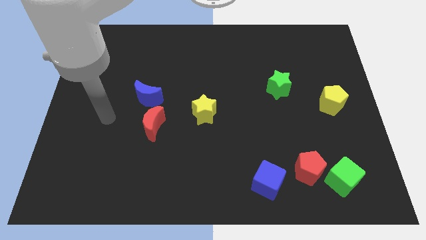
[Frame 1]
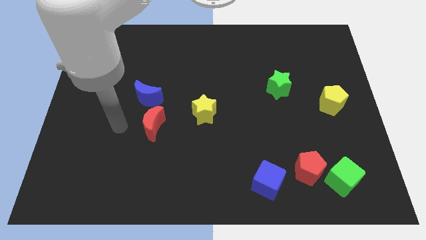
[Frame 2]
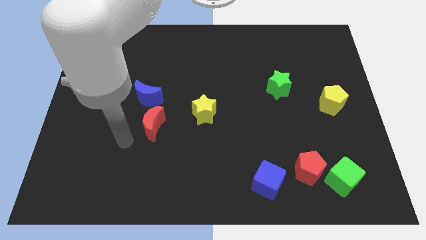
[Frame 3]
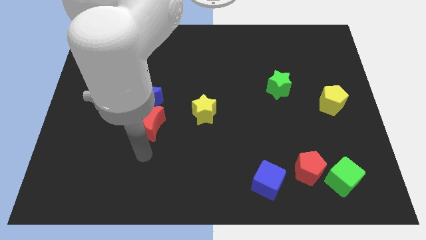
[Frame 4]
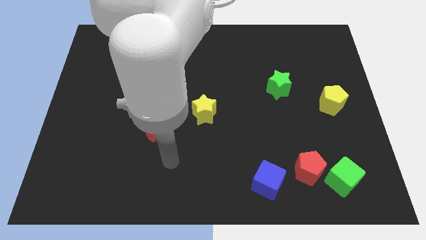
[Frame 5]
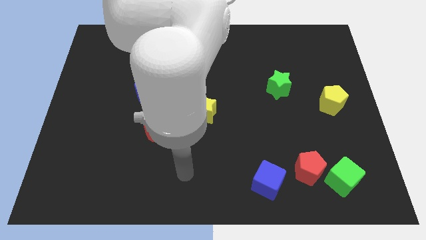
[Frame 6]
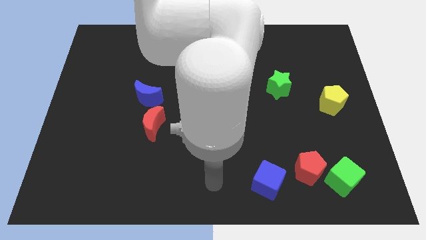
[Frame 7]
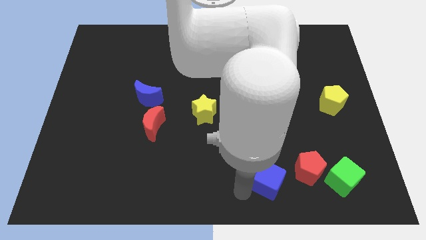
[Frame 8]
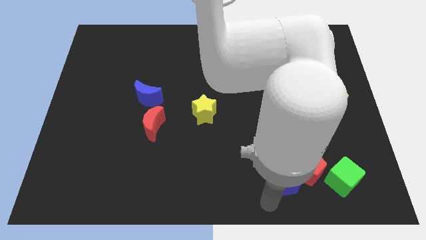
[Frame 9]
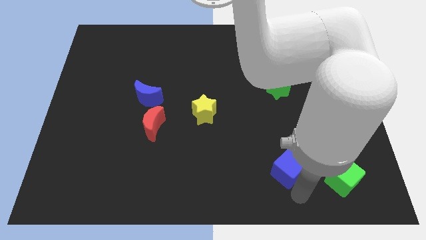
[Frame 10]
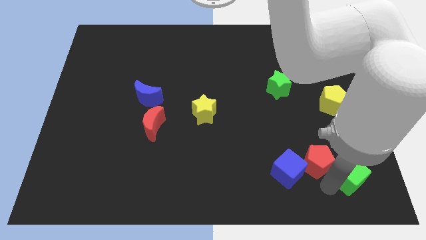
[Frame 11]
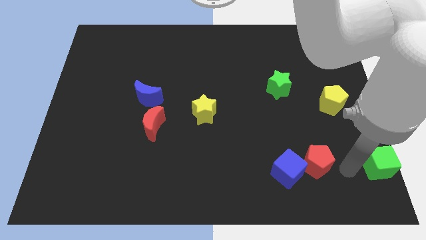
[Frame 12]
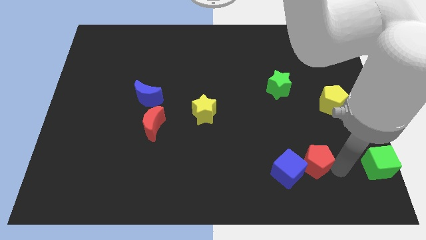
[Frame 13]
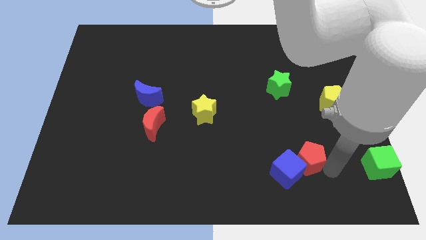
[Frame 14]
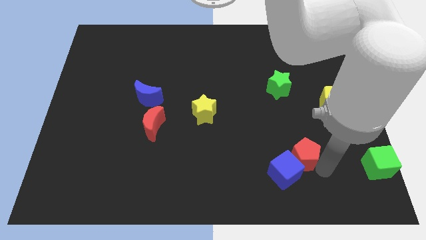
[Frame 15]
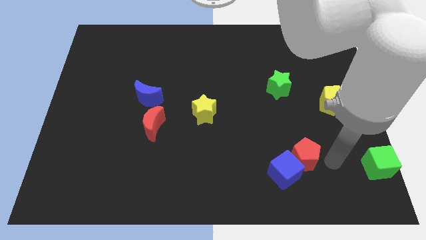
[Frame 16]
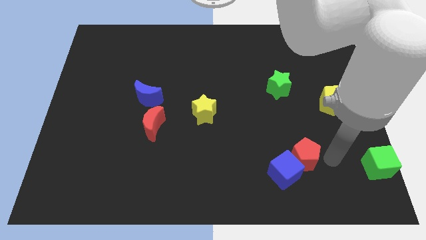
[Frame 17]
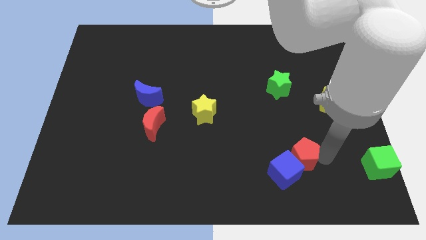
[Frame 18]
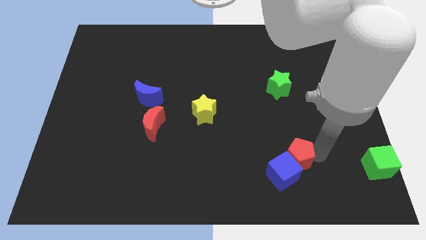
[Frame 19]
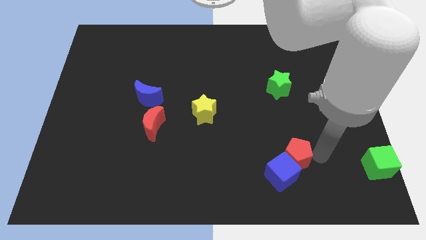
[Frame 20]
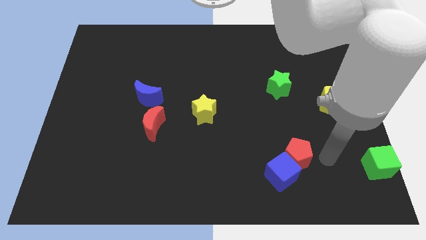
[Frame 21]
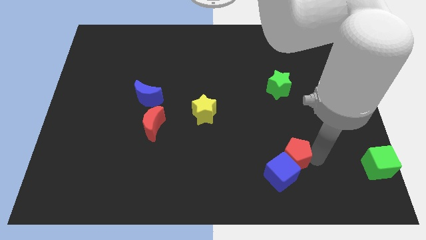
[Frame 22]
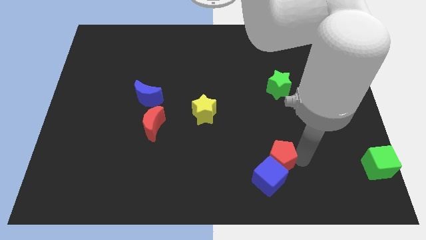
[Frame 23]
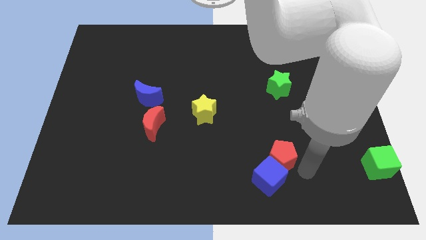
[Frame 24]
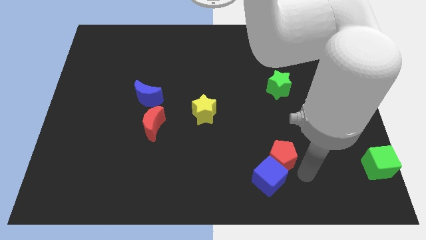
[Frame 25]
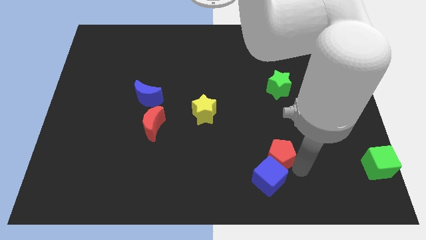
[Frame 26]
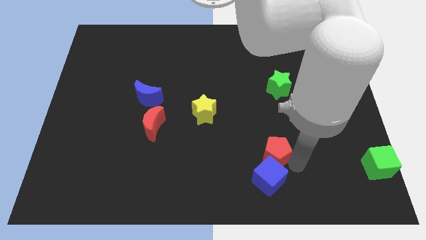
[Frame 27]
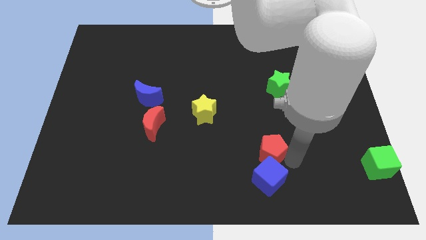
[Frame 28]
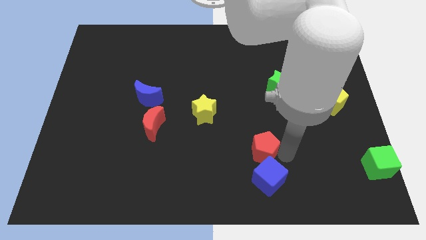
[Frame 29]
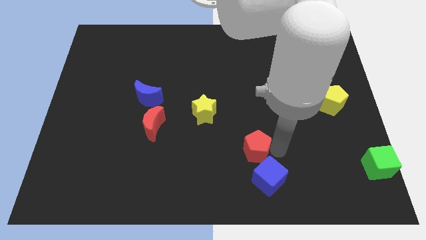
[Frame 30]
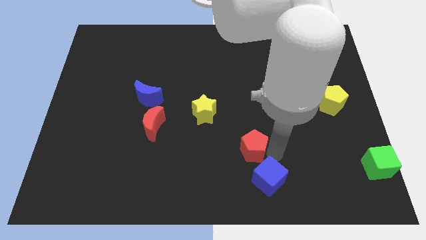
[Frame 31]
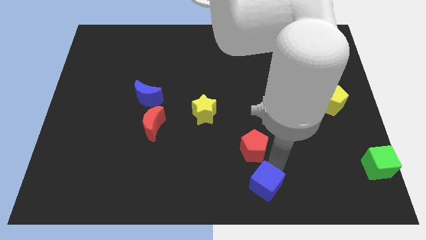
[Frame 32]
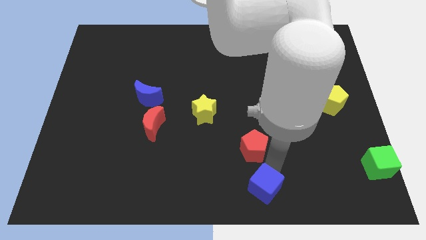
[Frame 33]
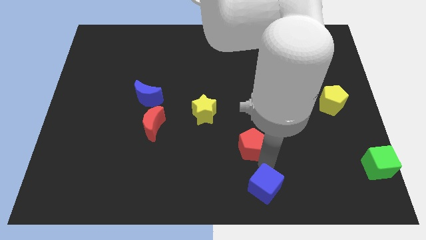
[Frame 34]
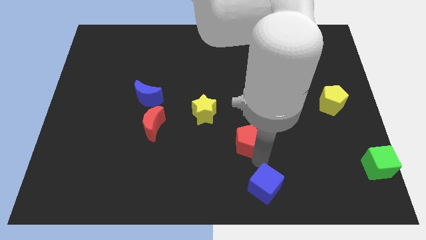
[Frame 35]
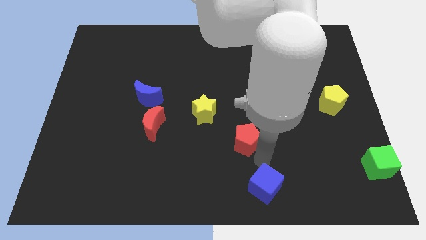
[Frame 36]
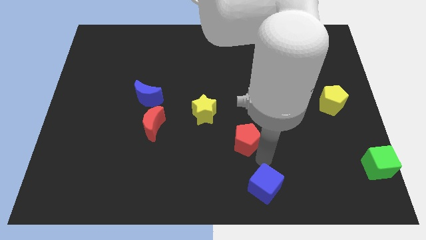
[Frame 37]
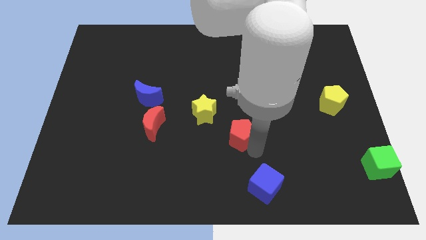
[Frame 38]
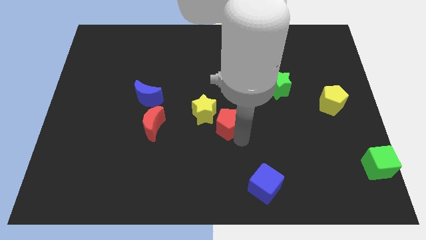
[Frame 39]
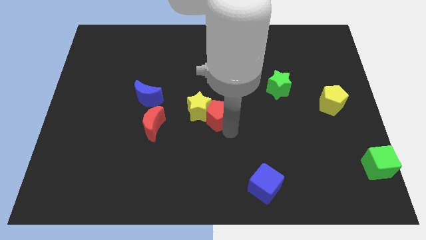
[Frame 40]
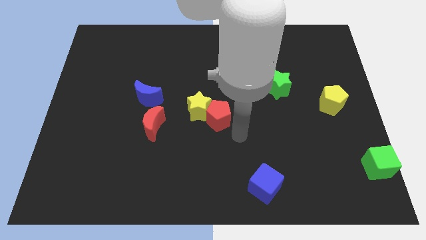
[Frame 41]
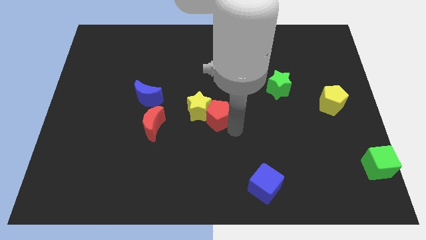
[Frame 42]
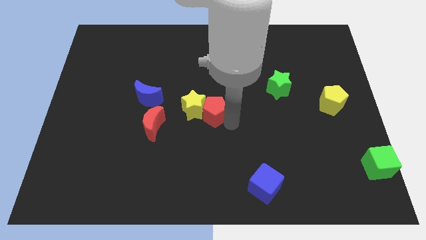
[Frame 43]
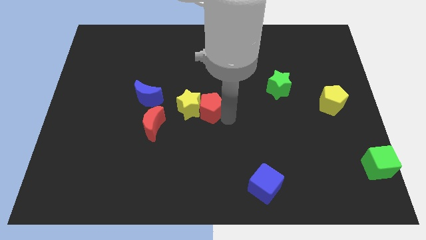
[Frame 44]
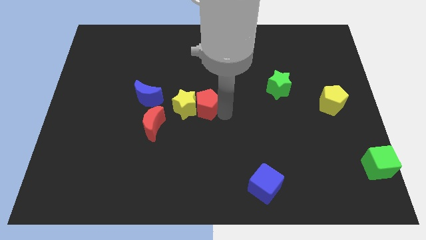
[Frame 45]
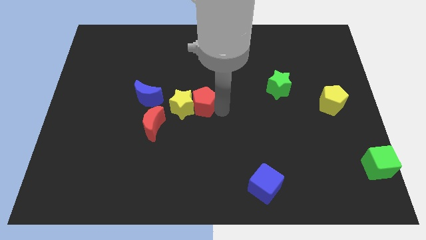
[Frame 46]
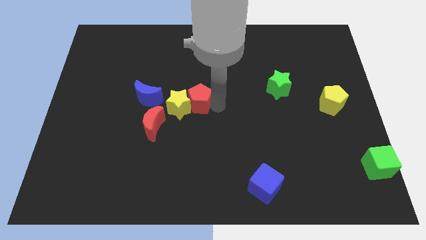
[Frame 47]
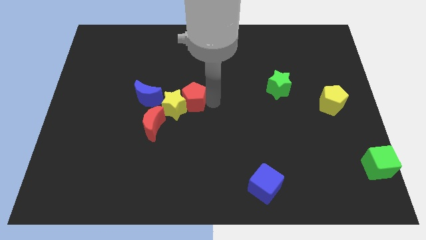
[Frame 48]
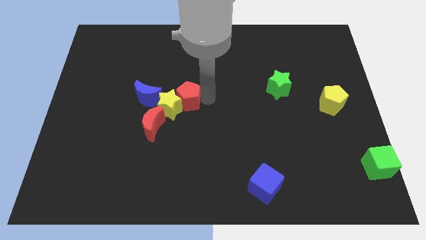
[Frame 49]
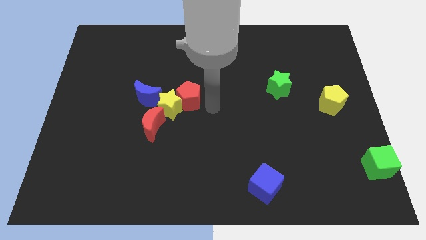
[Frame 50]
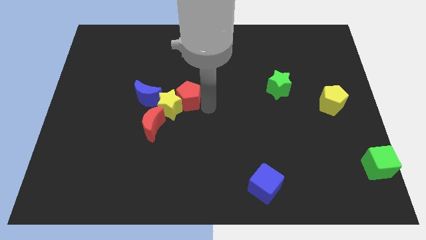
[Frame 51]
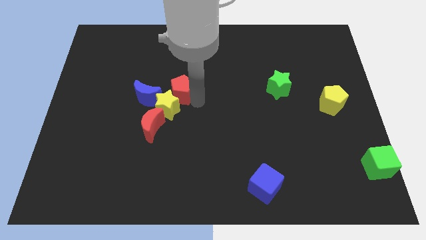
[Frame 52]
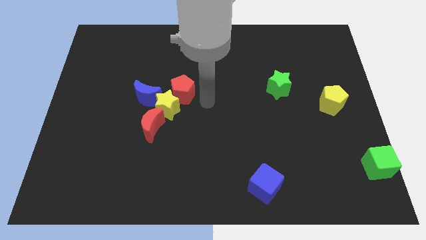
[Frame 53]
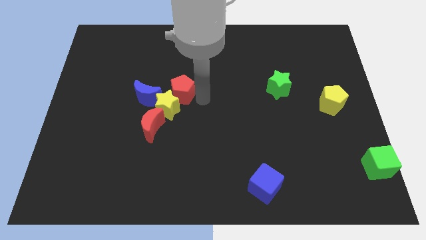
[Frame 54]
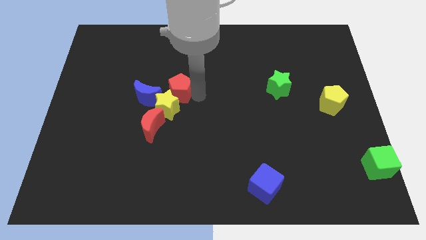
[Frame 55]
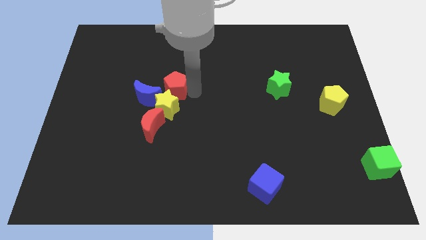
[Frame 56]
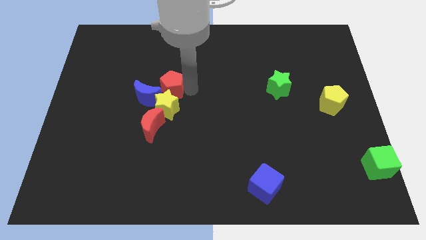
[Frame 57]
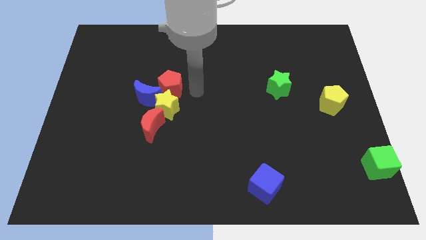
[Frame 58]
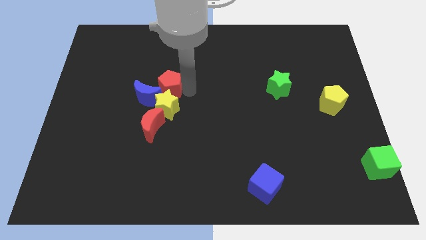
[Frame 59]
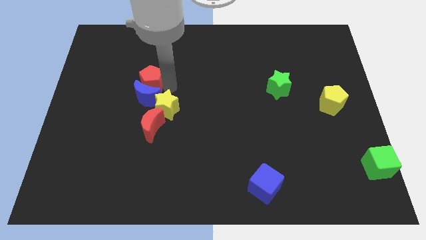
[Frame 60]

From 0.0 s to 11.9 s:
put the red pentagon diagonally up and to the left of the blue moon

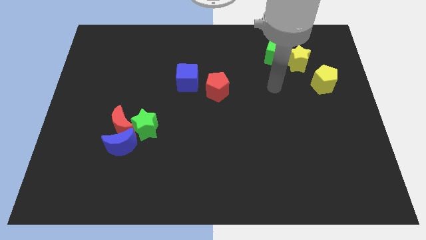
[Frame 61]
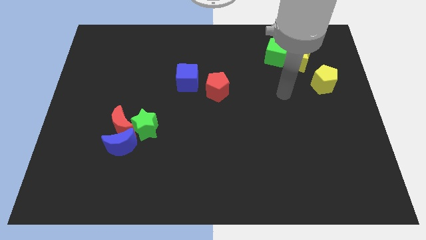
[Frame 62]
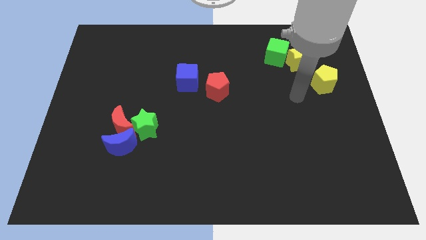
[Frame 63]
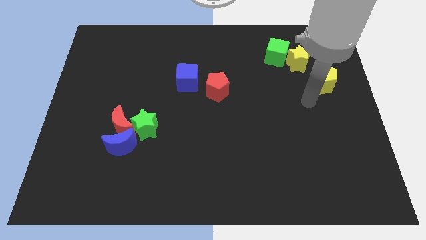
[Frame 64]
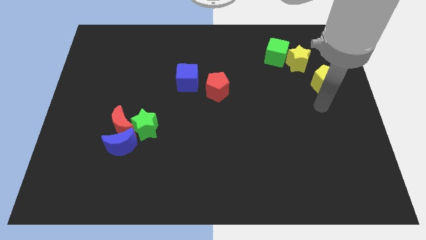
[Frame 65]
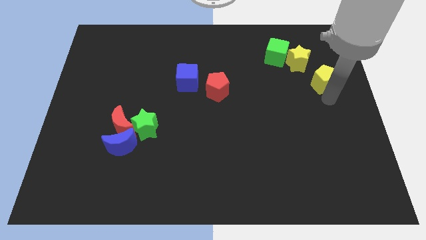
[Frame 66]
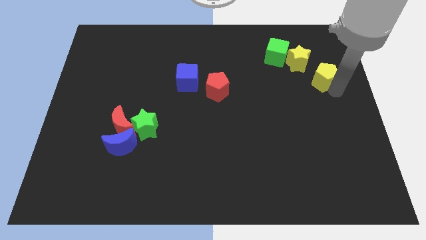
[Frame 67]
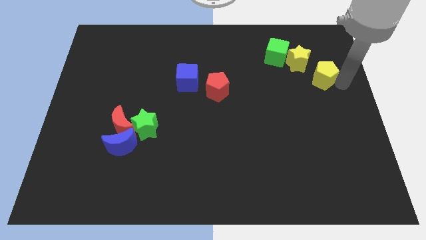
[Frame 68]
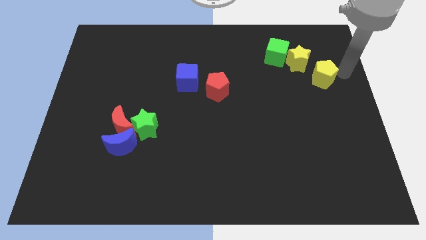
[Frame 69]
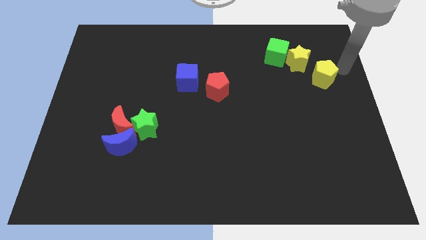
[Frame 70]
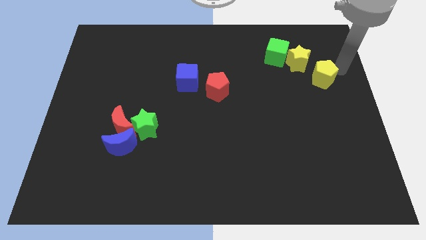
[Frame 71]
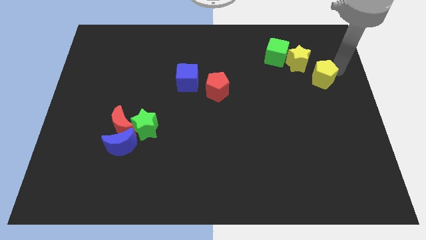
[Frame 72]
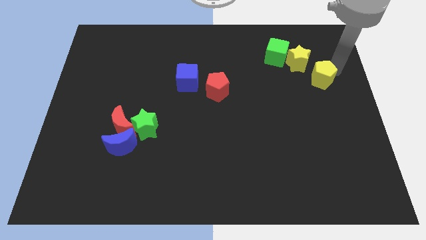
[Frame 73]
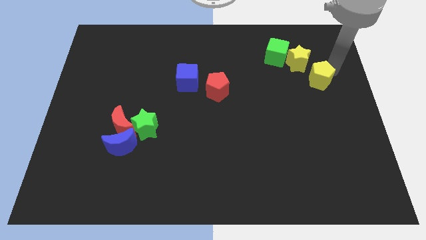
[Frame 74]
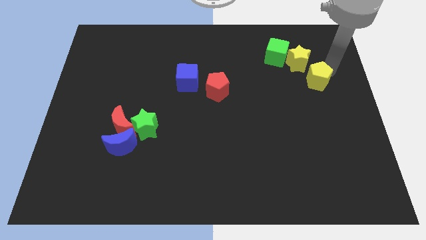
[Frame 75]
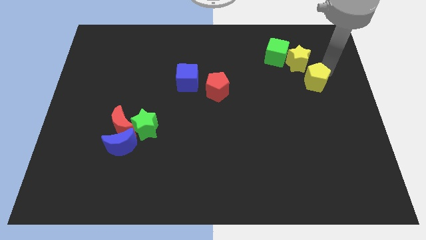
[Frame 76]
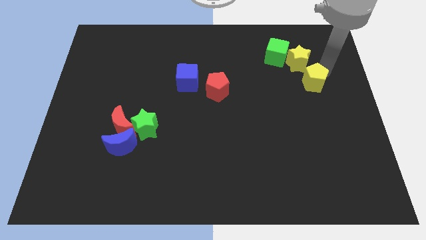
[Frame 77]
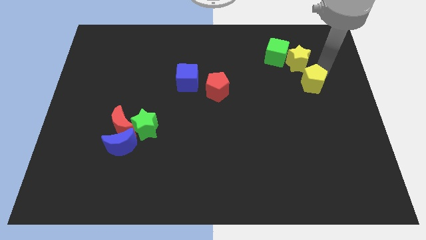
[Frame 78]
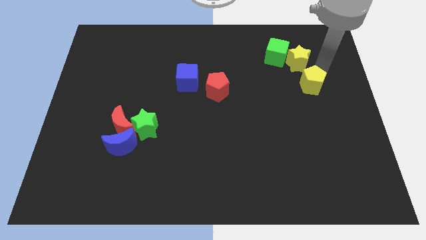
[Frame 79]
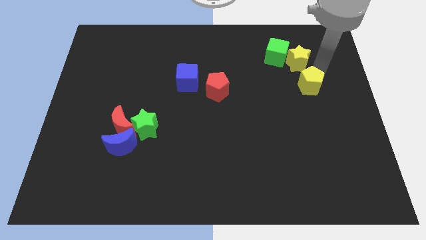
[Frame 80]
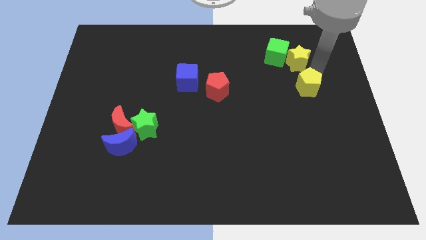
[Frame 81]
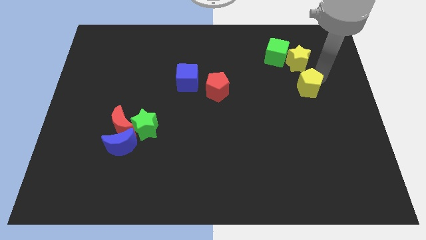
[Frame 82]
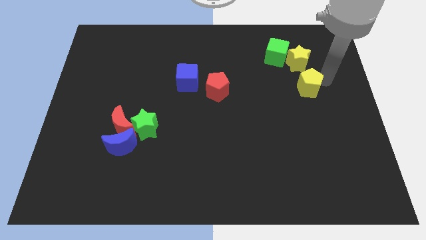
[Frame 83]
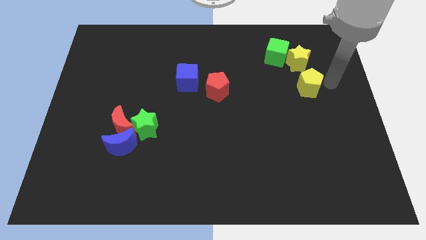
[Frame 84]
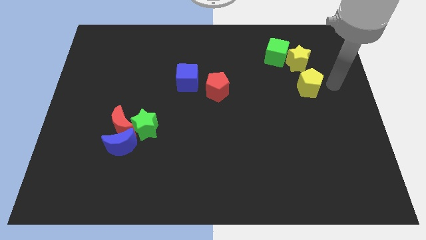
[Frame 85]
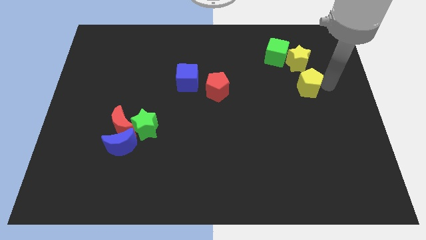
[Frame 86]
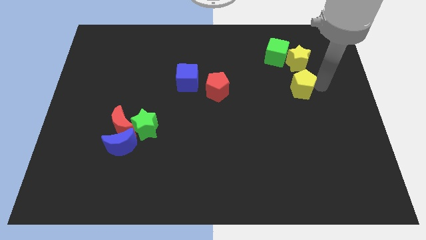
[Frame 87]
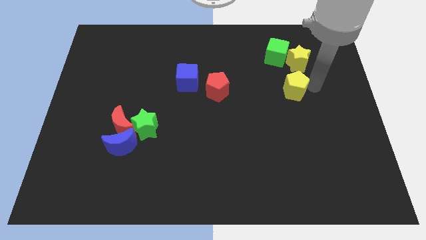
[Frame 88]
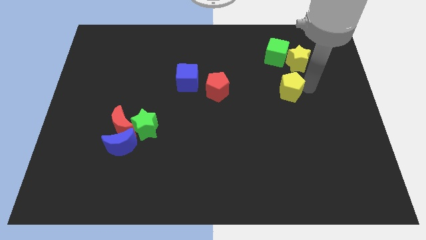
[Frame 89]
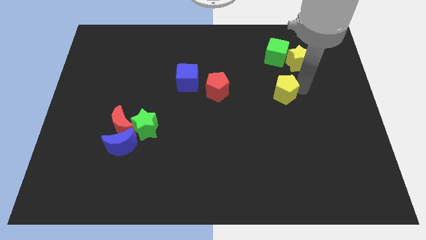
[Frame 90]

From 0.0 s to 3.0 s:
slide the yellow pentagon just right of the red pentagon
